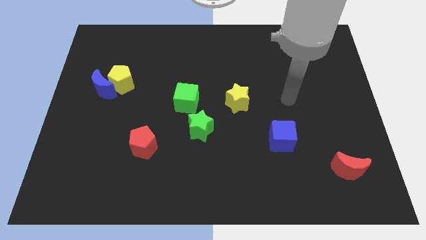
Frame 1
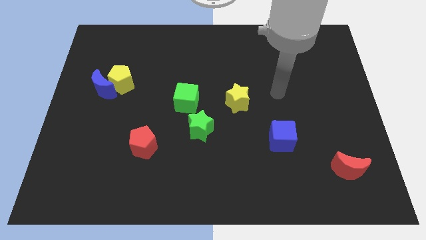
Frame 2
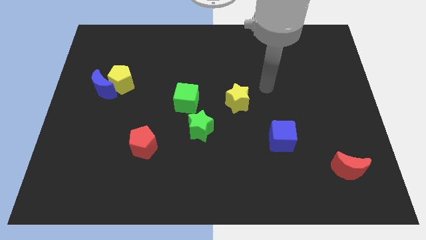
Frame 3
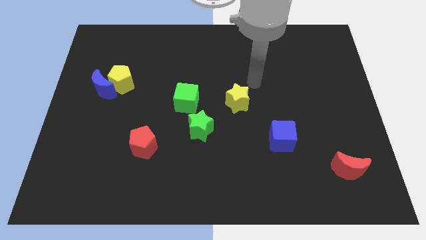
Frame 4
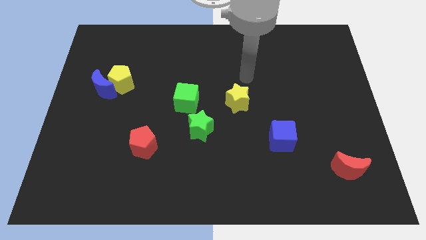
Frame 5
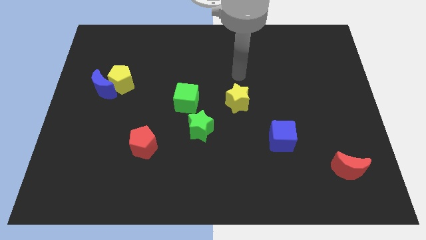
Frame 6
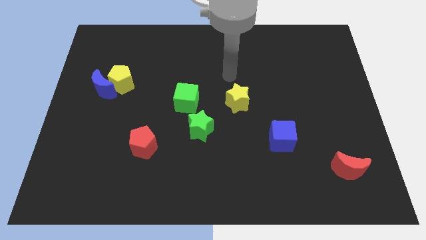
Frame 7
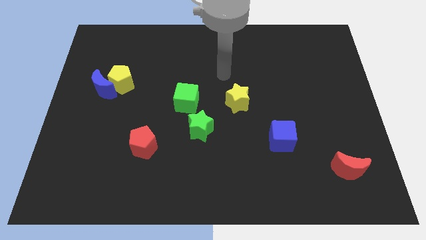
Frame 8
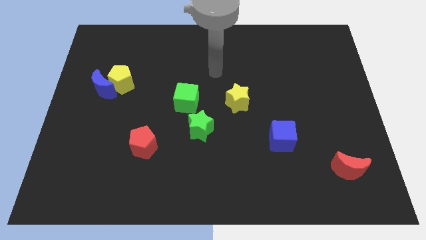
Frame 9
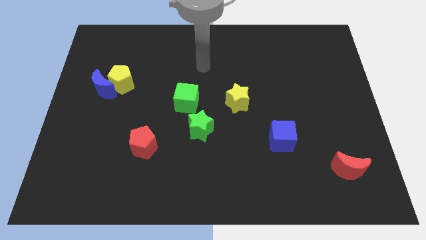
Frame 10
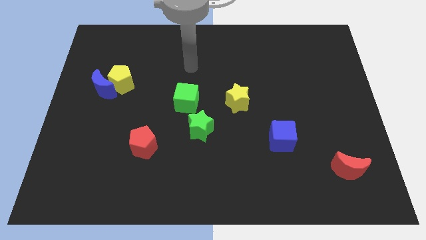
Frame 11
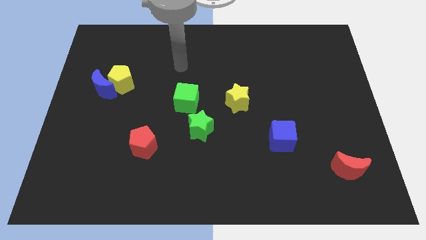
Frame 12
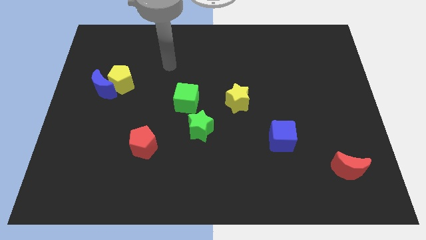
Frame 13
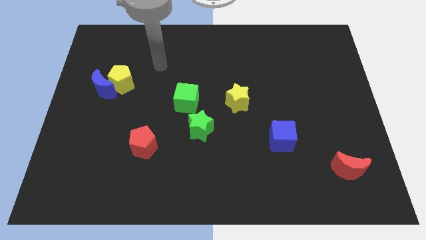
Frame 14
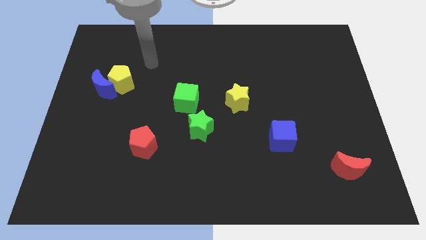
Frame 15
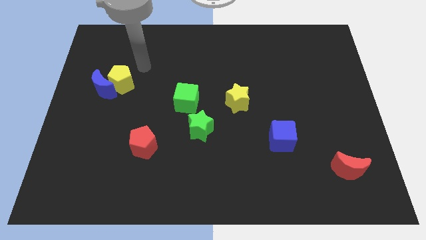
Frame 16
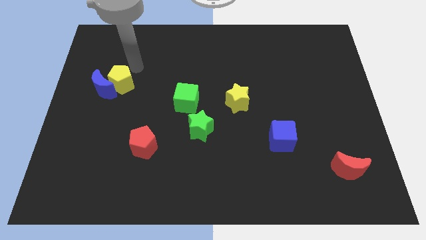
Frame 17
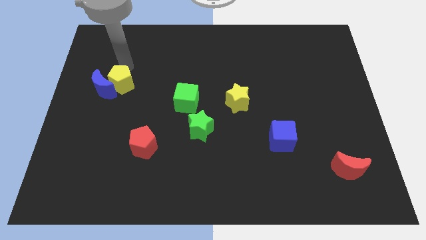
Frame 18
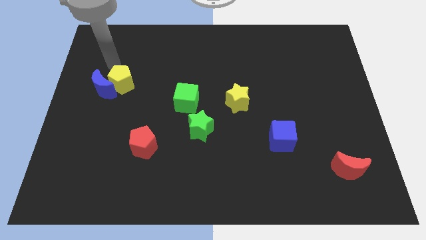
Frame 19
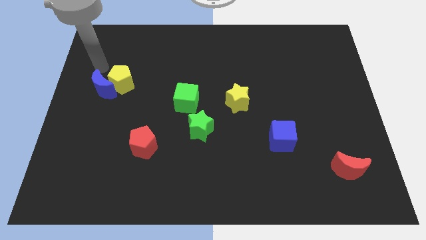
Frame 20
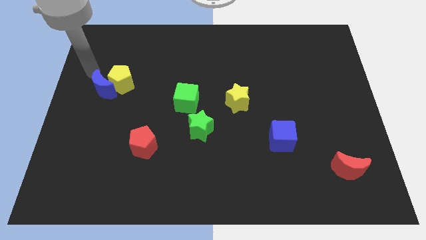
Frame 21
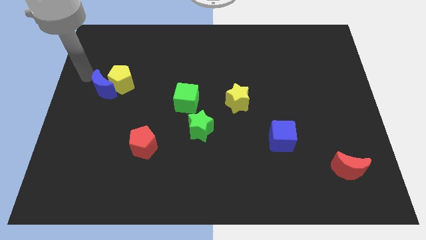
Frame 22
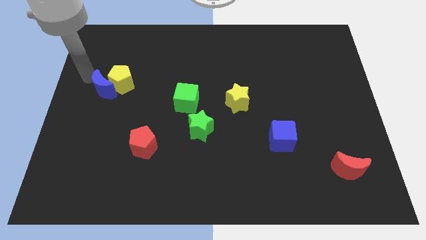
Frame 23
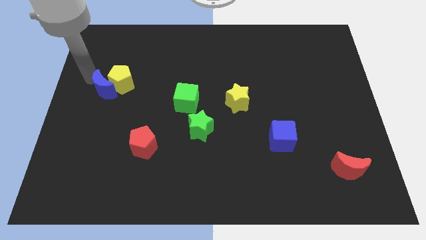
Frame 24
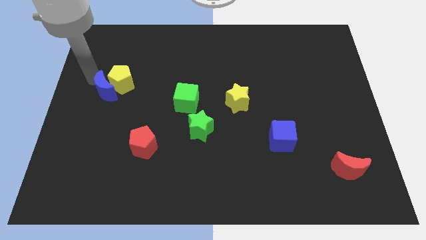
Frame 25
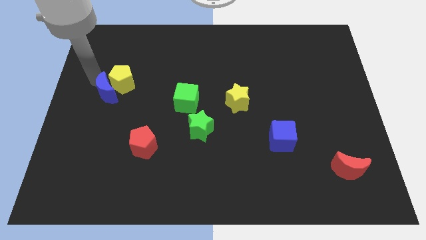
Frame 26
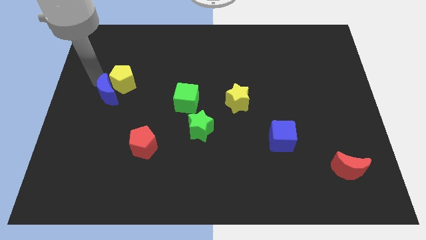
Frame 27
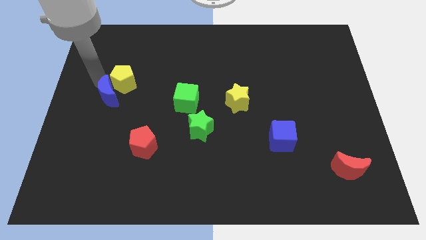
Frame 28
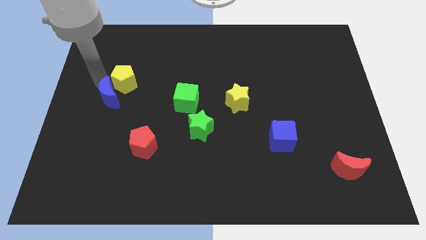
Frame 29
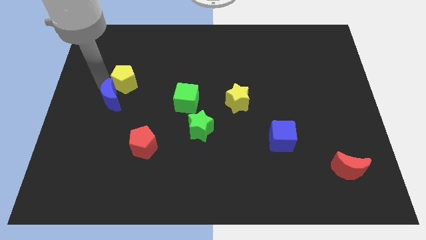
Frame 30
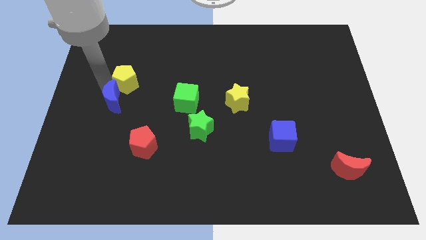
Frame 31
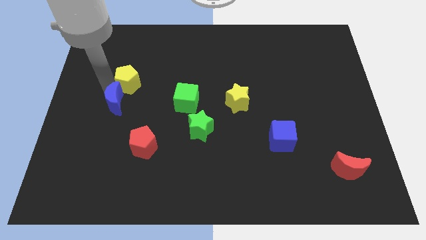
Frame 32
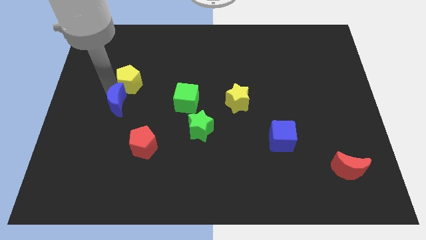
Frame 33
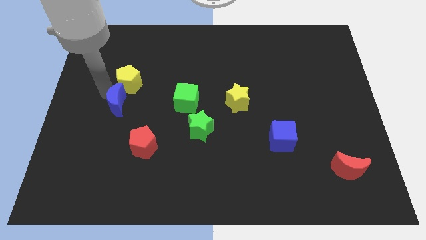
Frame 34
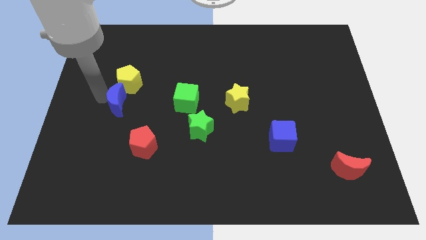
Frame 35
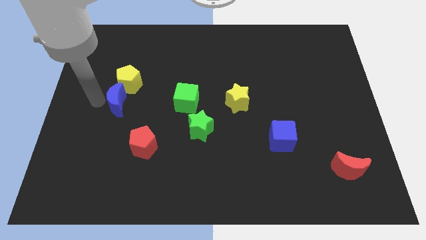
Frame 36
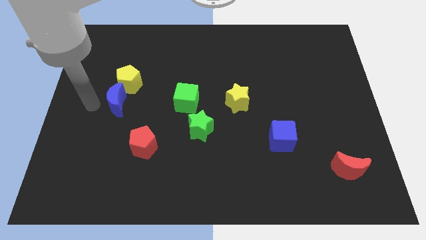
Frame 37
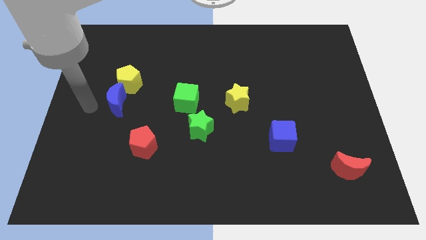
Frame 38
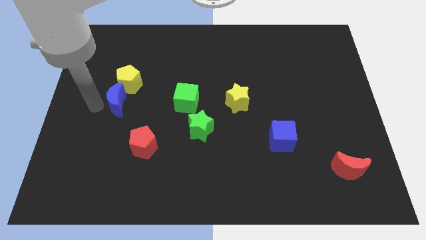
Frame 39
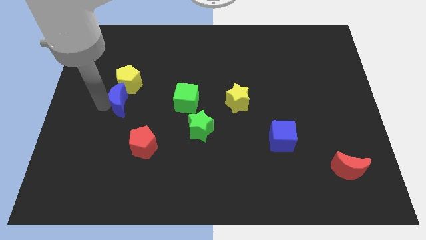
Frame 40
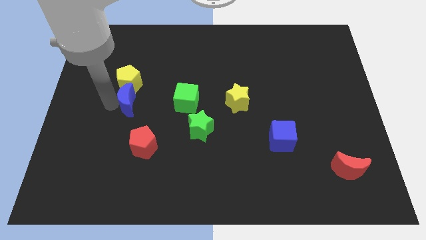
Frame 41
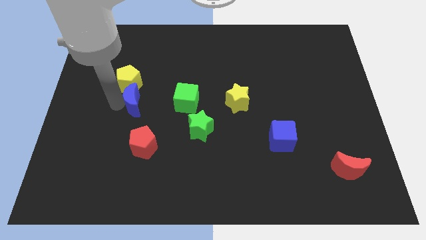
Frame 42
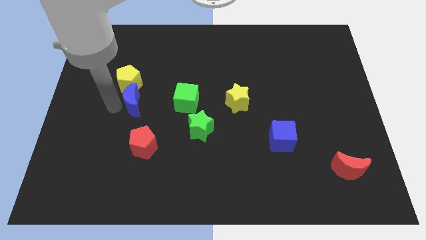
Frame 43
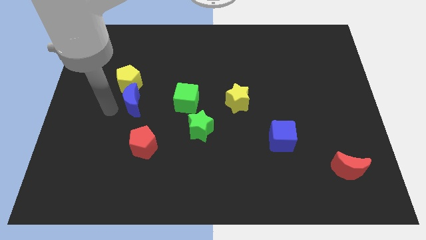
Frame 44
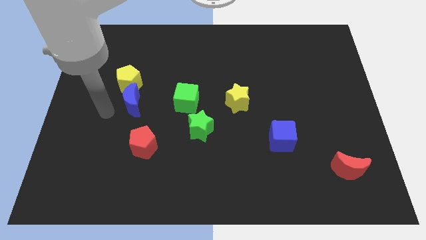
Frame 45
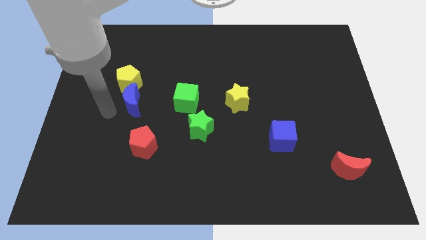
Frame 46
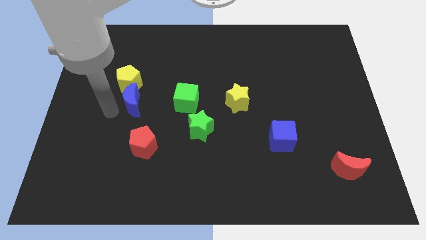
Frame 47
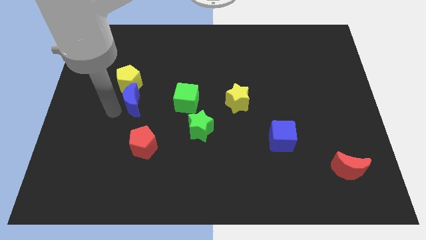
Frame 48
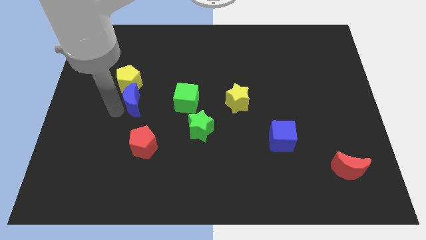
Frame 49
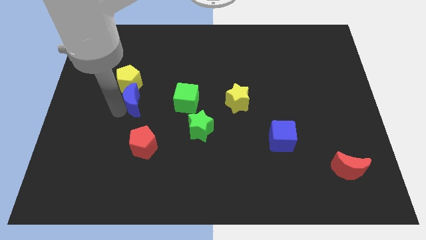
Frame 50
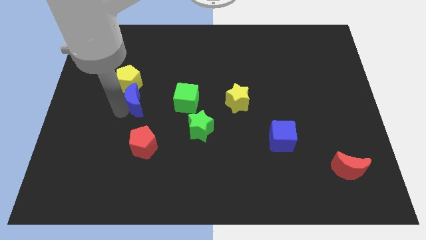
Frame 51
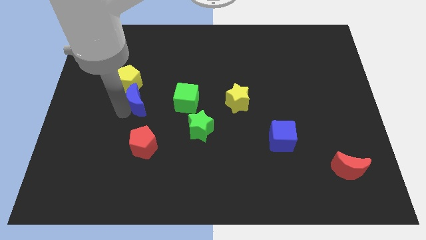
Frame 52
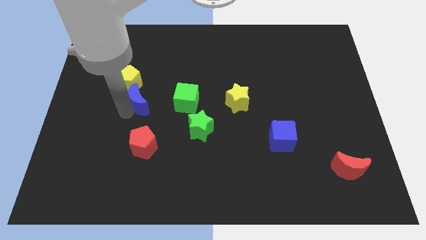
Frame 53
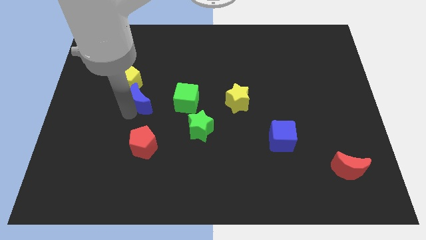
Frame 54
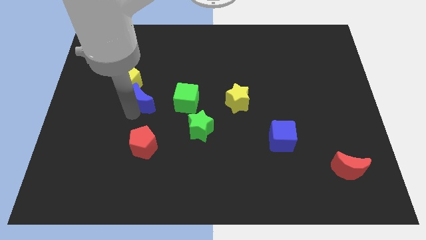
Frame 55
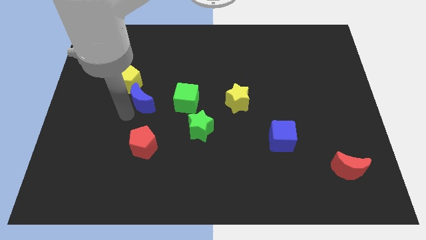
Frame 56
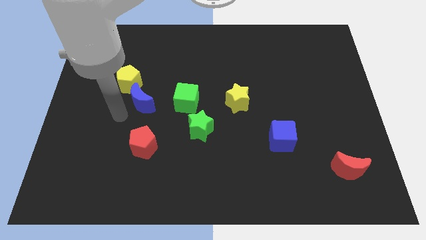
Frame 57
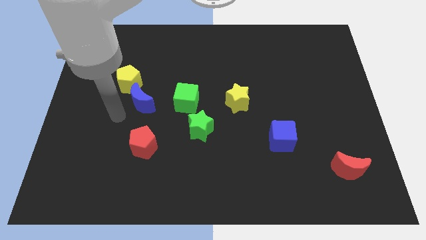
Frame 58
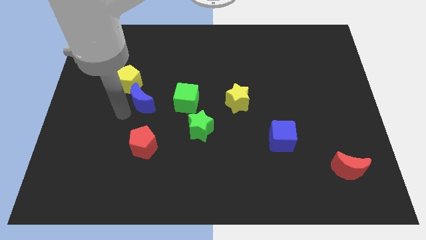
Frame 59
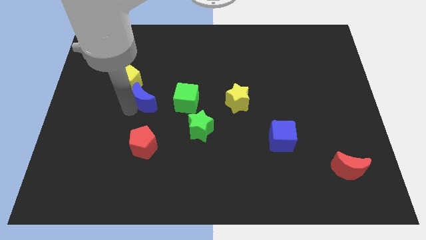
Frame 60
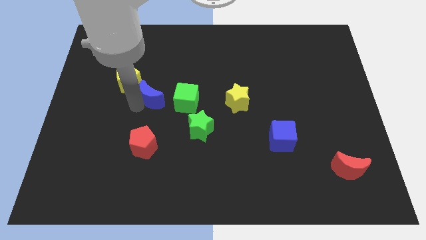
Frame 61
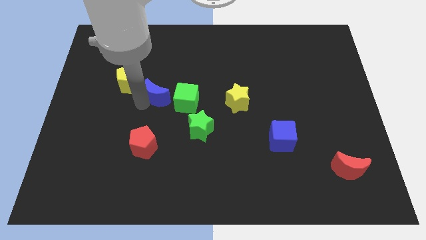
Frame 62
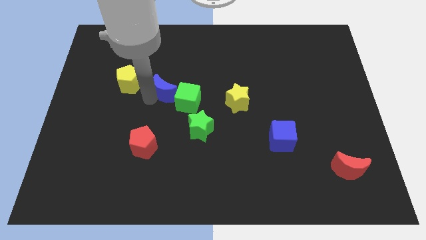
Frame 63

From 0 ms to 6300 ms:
slide the blue moon to the middle of the board
